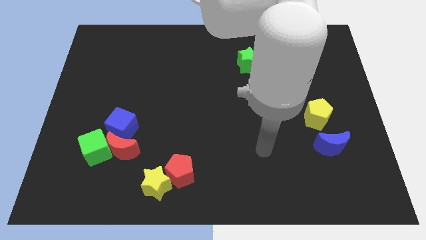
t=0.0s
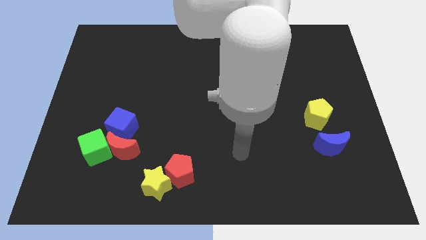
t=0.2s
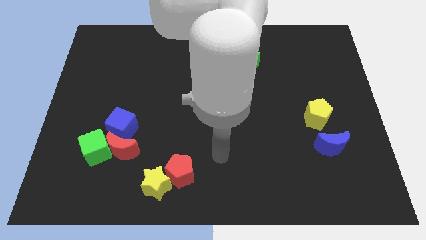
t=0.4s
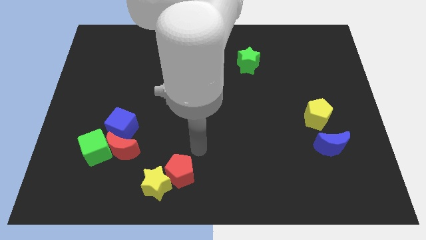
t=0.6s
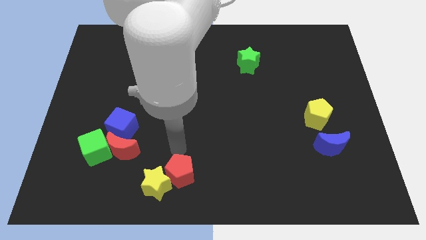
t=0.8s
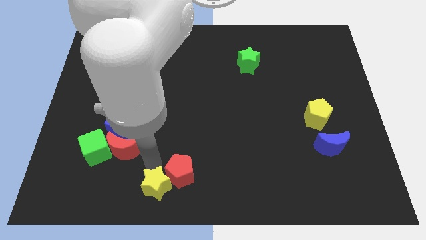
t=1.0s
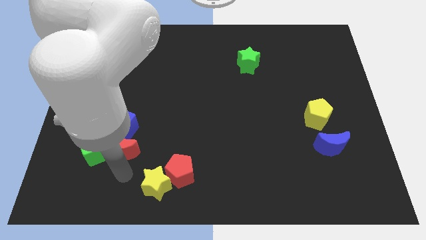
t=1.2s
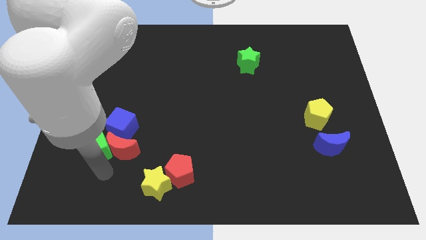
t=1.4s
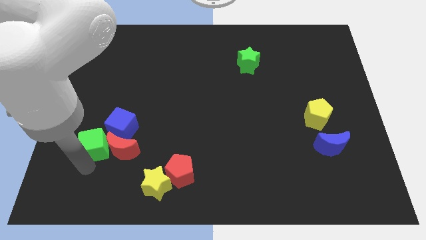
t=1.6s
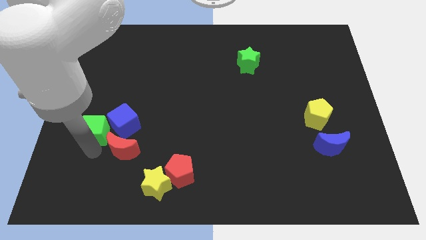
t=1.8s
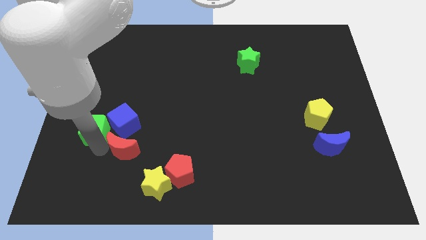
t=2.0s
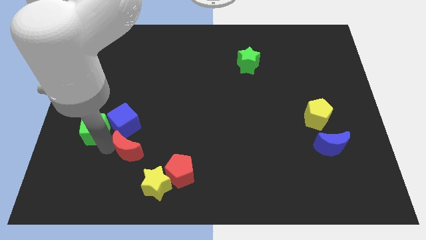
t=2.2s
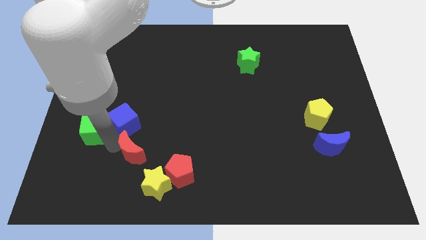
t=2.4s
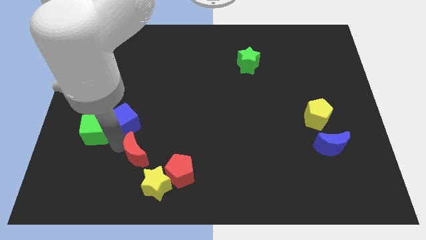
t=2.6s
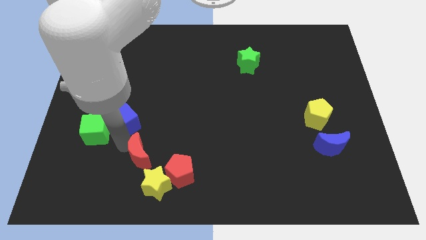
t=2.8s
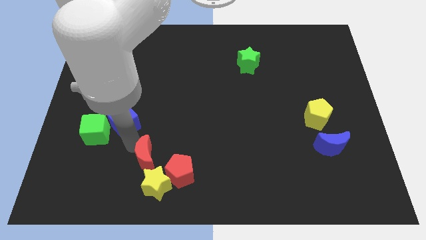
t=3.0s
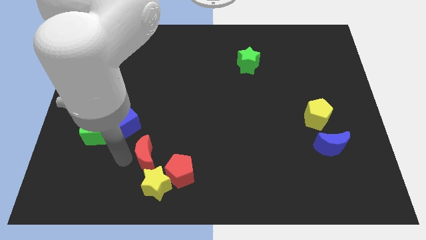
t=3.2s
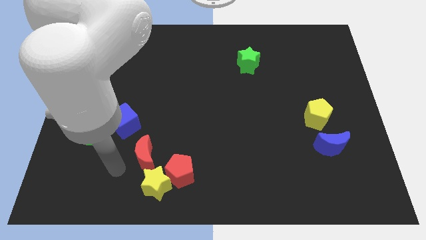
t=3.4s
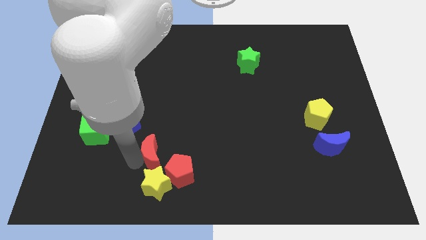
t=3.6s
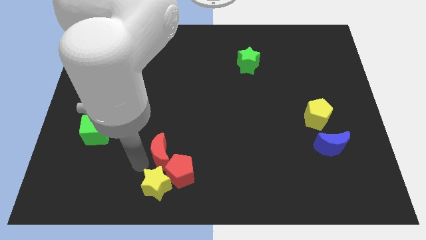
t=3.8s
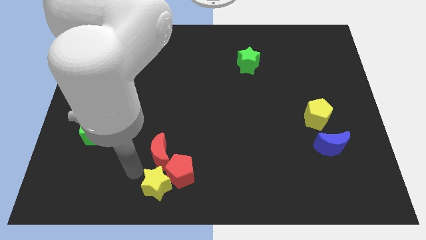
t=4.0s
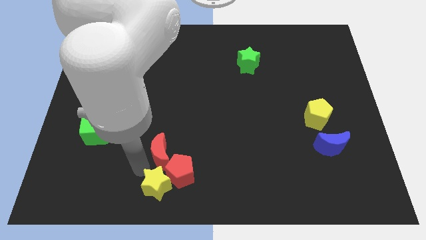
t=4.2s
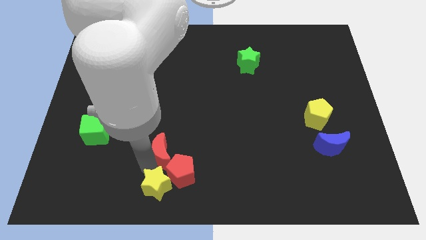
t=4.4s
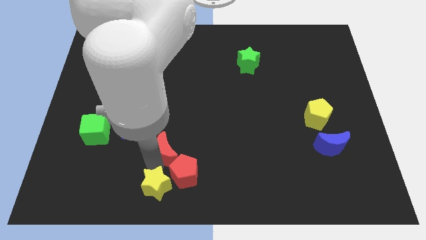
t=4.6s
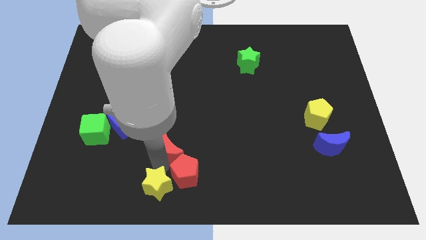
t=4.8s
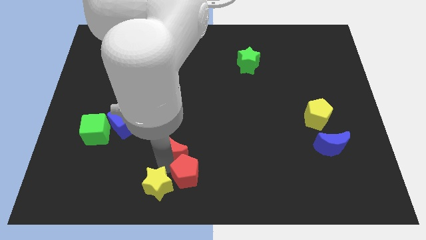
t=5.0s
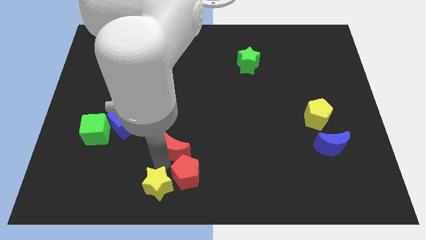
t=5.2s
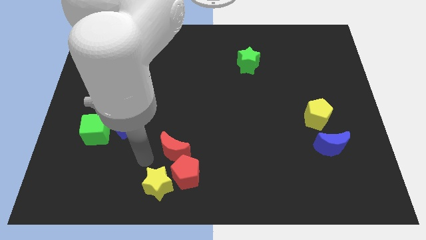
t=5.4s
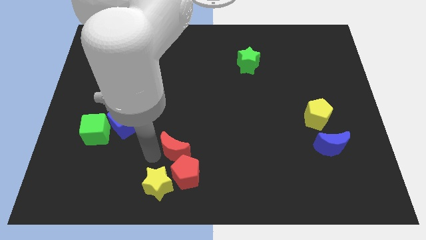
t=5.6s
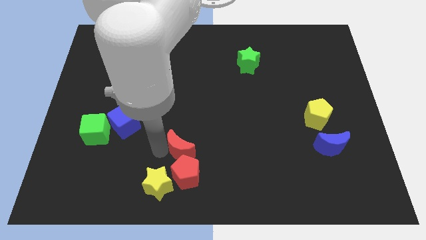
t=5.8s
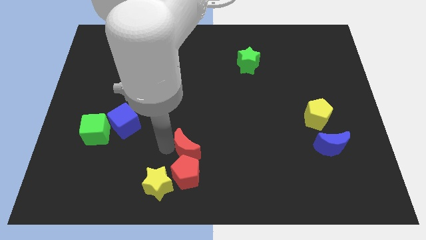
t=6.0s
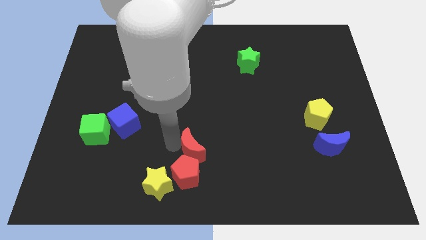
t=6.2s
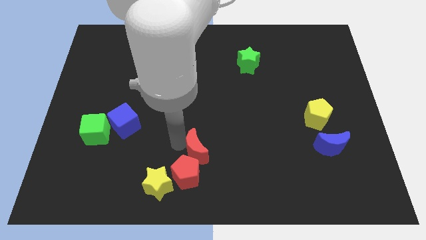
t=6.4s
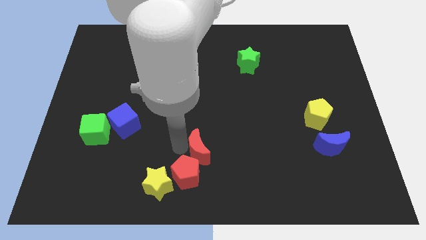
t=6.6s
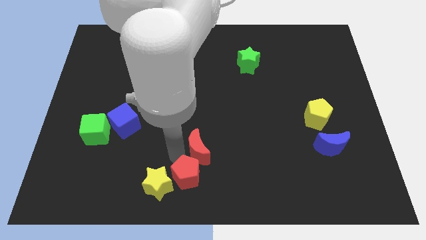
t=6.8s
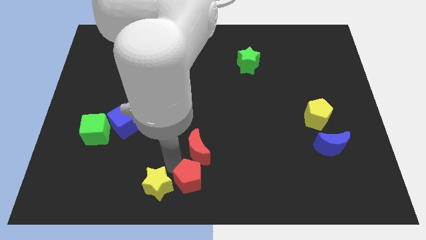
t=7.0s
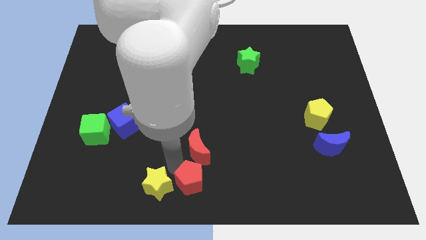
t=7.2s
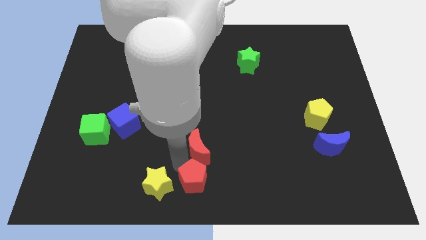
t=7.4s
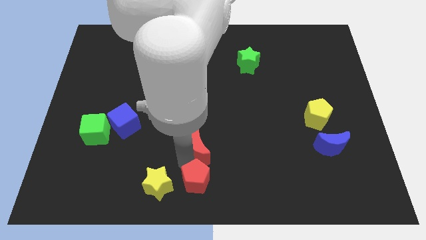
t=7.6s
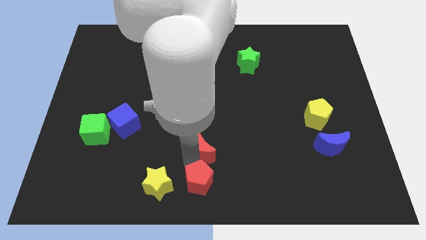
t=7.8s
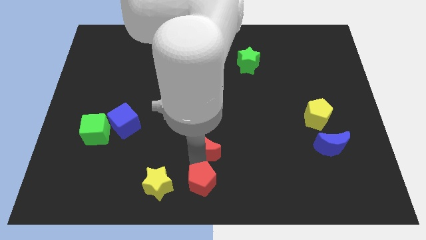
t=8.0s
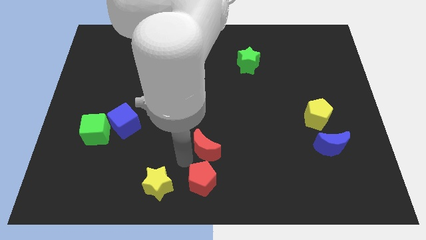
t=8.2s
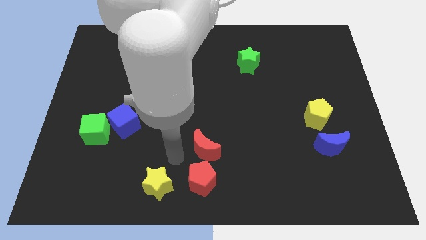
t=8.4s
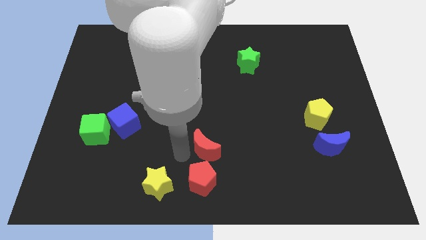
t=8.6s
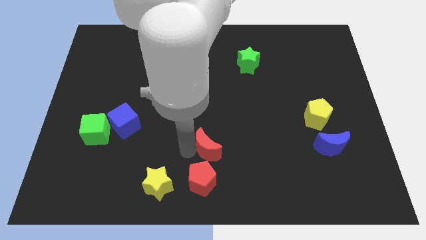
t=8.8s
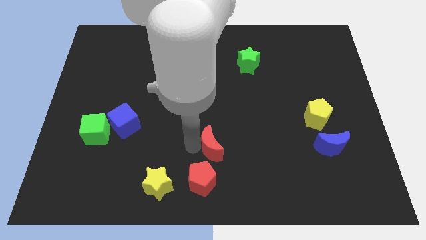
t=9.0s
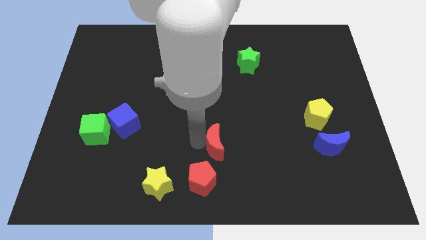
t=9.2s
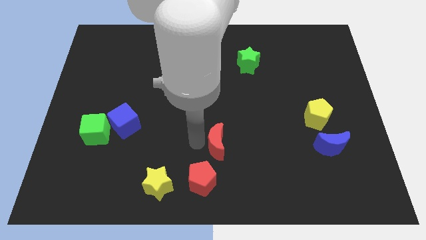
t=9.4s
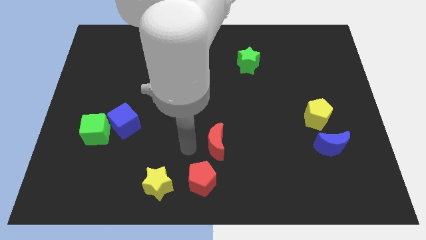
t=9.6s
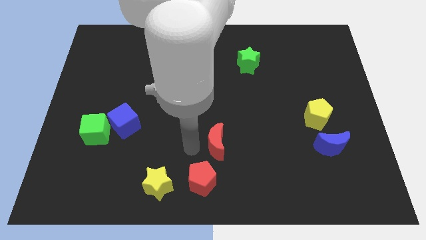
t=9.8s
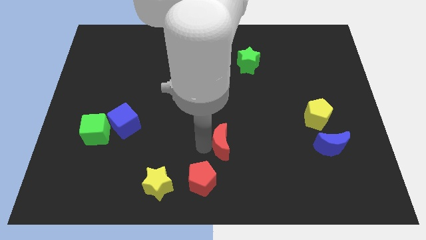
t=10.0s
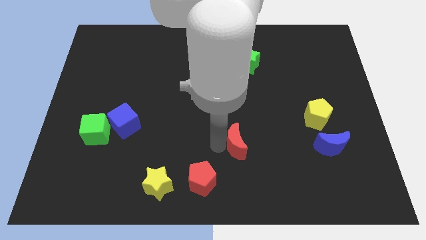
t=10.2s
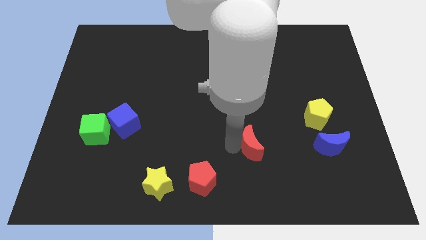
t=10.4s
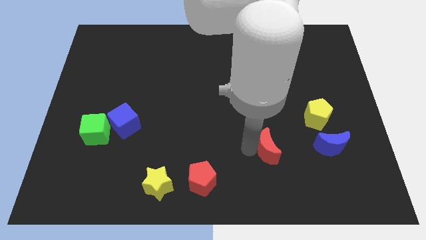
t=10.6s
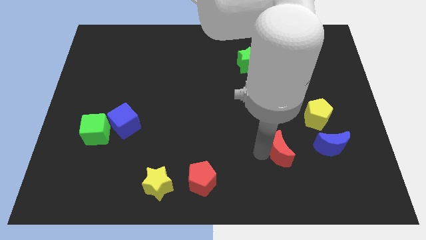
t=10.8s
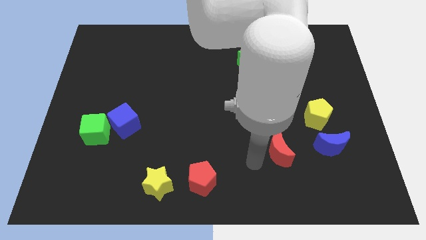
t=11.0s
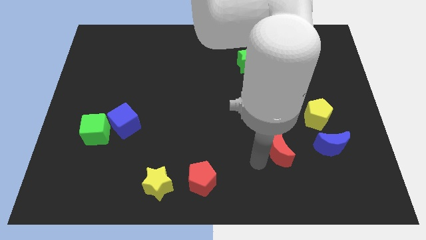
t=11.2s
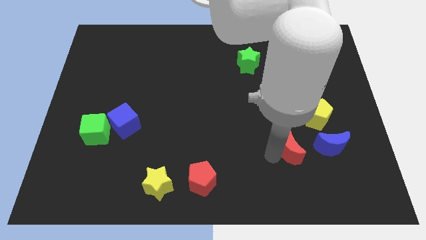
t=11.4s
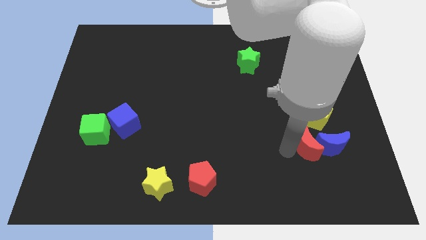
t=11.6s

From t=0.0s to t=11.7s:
move the red moon to the blue moon

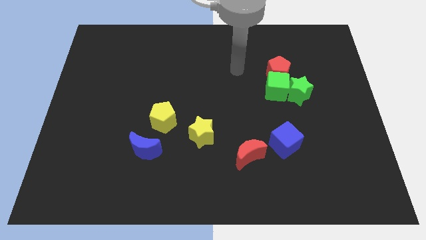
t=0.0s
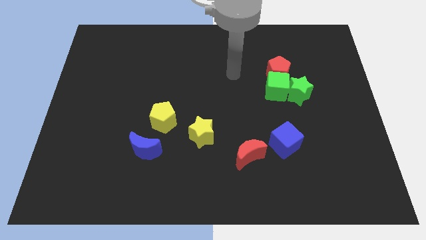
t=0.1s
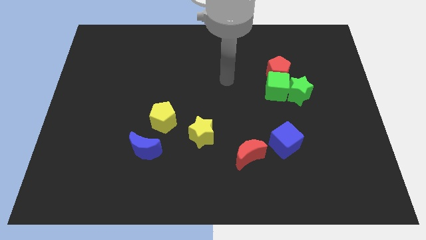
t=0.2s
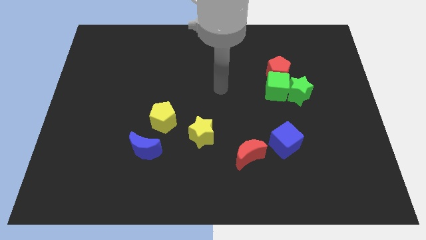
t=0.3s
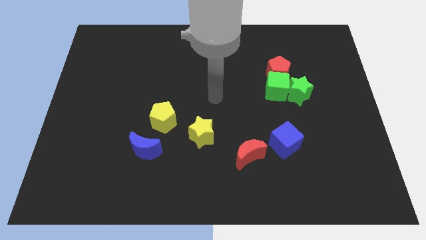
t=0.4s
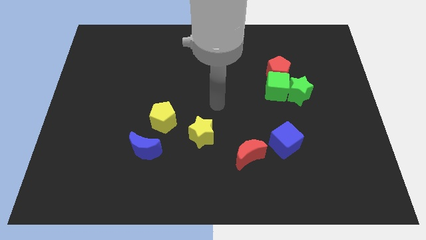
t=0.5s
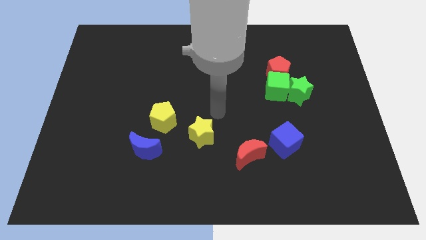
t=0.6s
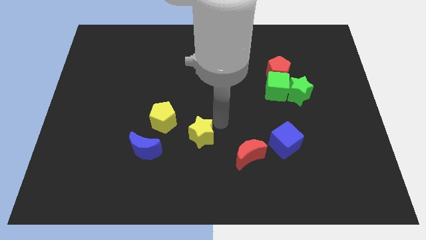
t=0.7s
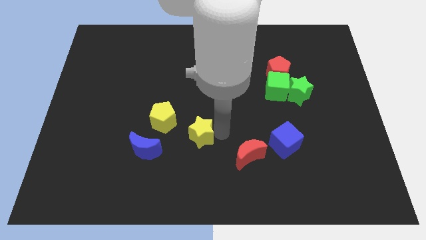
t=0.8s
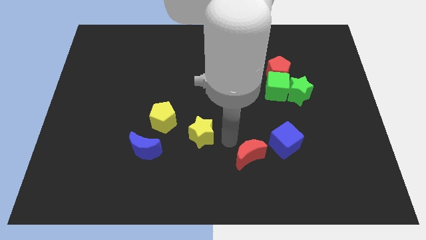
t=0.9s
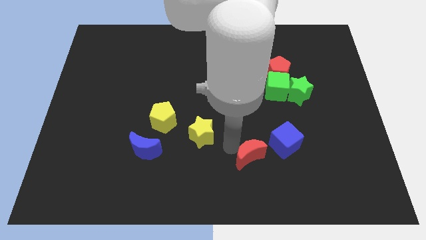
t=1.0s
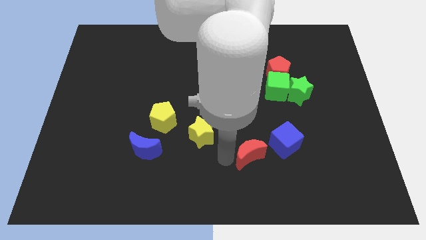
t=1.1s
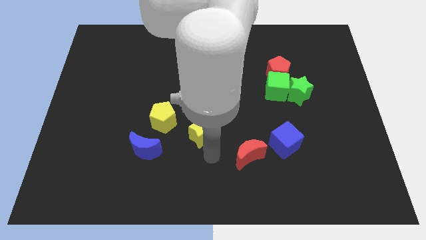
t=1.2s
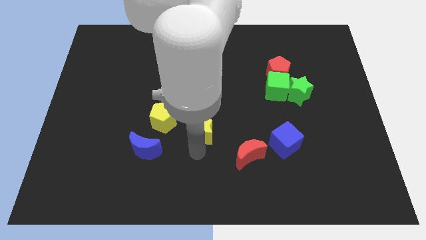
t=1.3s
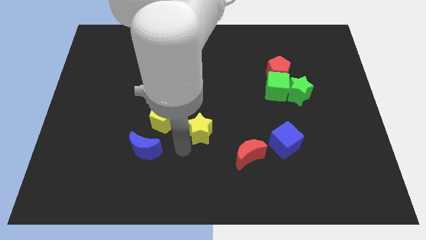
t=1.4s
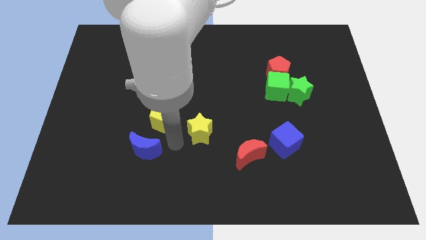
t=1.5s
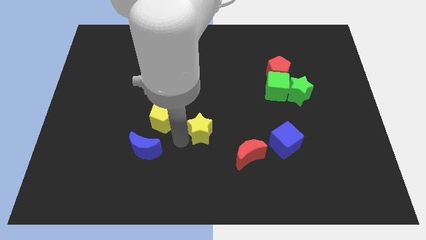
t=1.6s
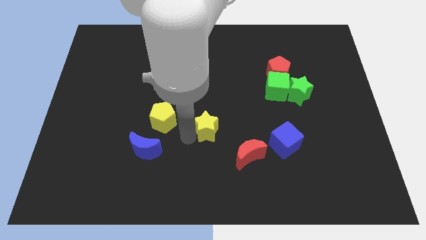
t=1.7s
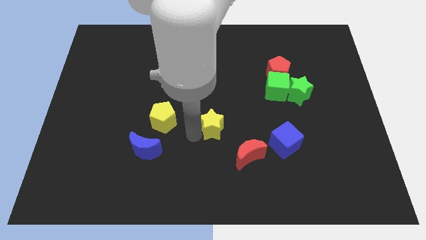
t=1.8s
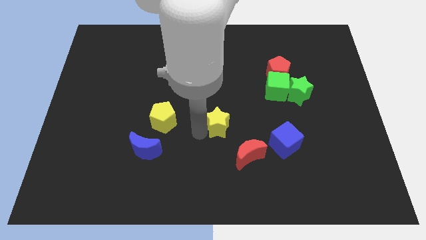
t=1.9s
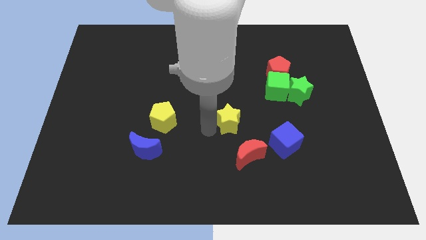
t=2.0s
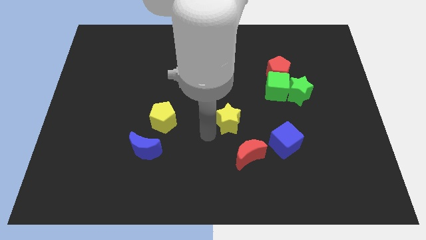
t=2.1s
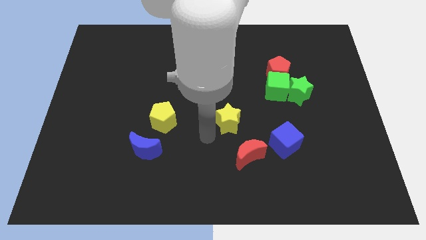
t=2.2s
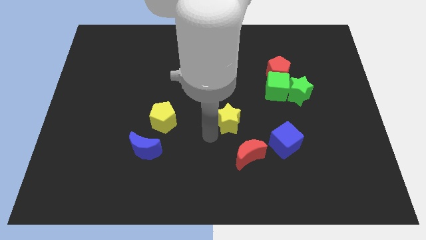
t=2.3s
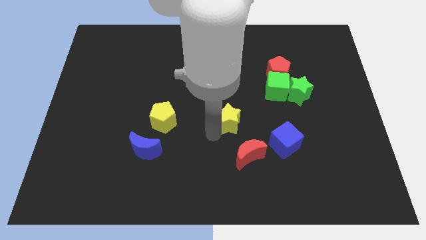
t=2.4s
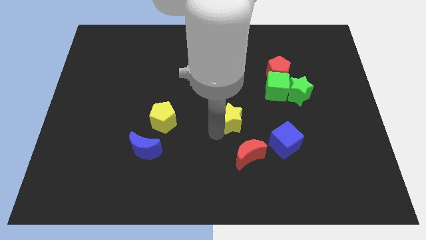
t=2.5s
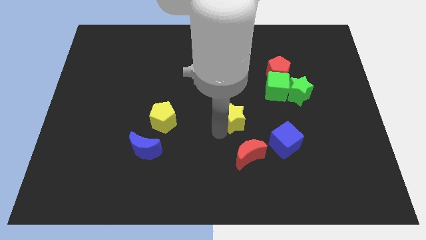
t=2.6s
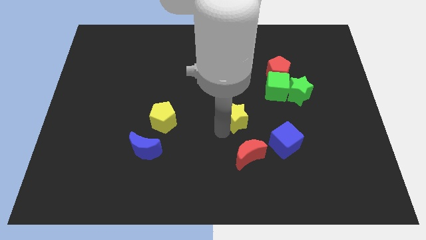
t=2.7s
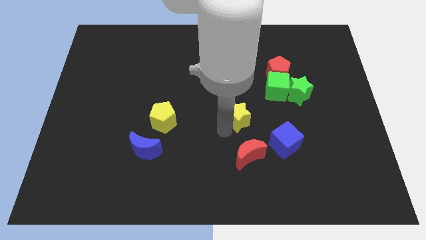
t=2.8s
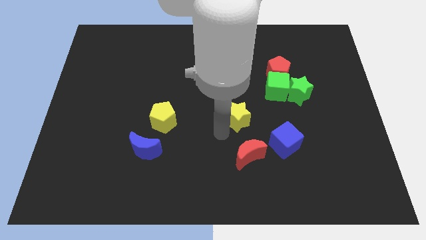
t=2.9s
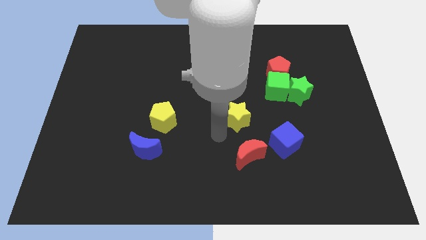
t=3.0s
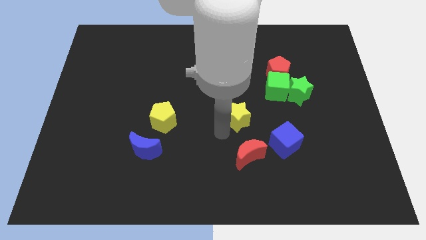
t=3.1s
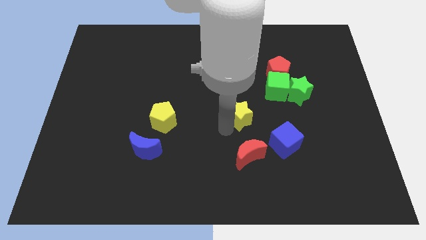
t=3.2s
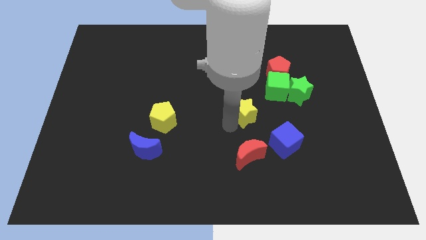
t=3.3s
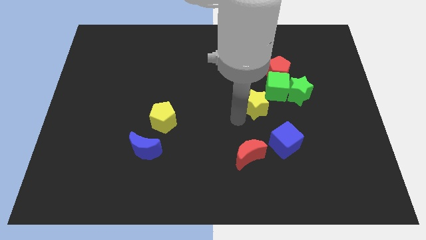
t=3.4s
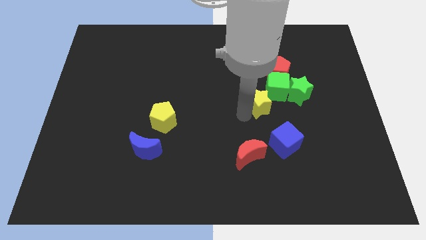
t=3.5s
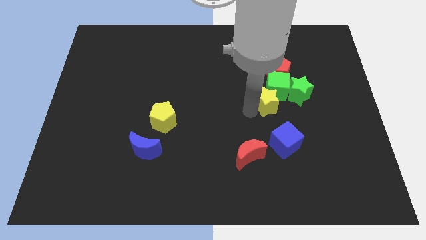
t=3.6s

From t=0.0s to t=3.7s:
move the yellow star to the green cube
